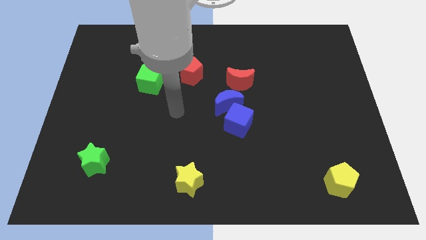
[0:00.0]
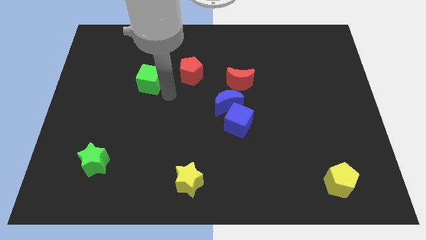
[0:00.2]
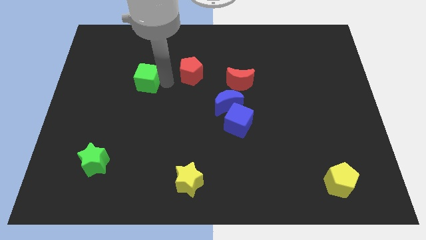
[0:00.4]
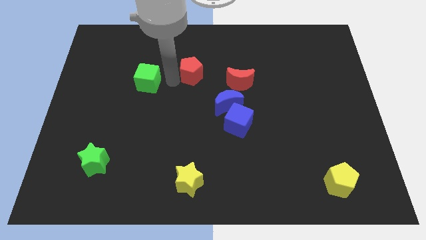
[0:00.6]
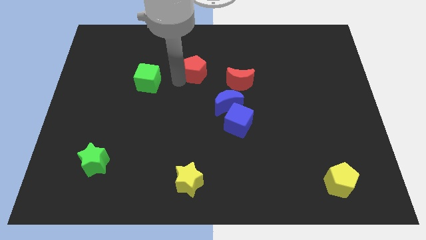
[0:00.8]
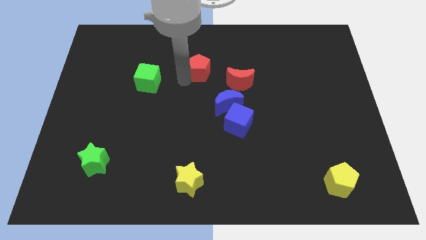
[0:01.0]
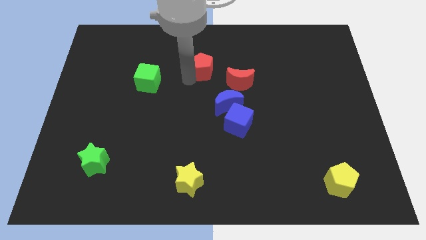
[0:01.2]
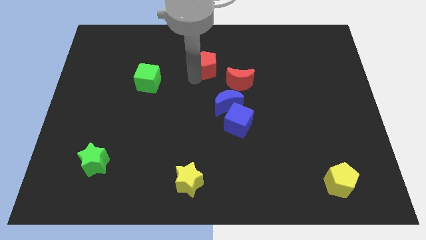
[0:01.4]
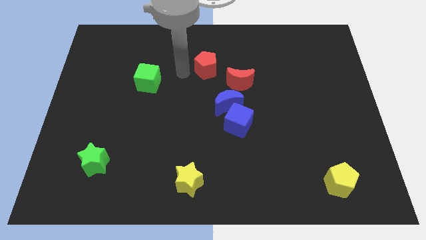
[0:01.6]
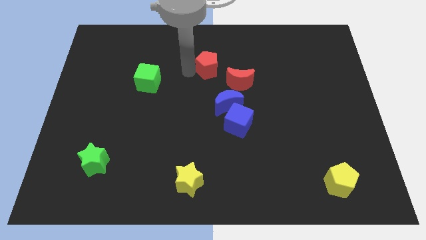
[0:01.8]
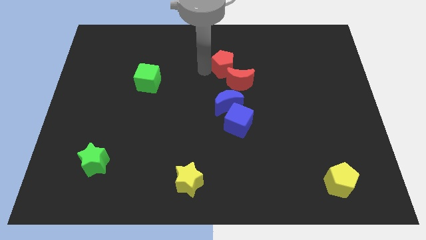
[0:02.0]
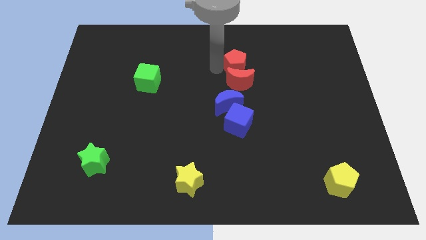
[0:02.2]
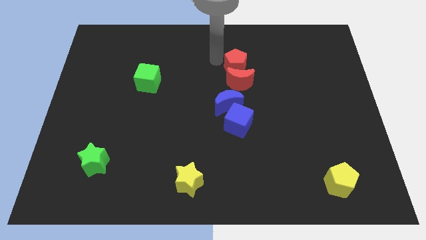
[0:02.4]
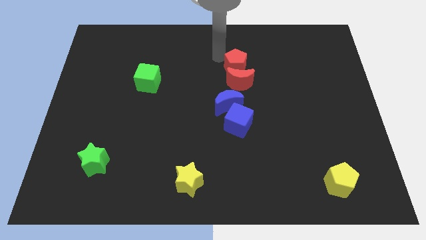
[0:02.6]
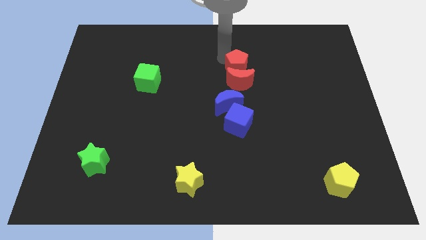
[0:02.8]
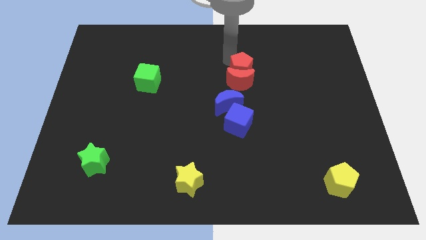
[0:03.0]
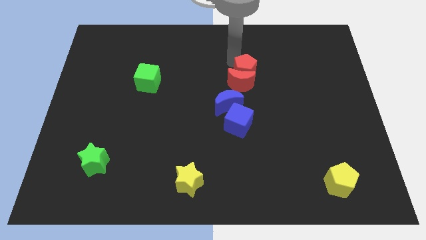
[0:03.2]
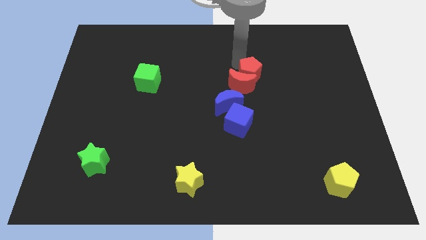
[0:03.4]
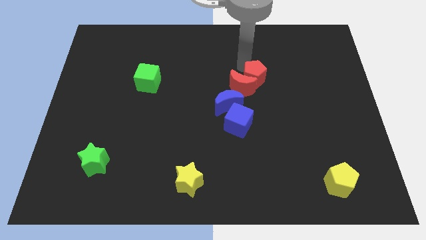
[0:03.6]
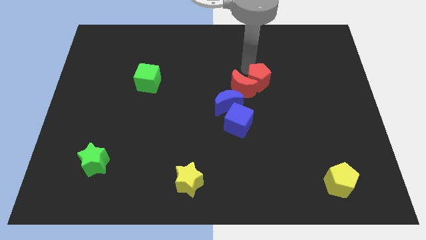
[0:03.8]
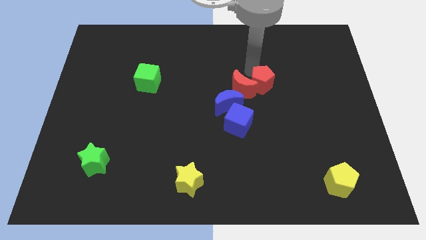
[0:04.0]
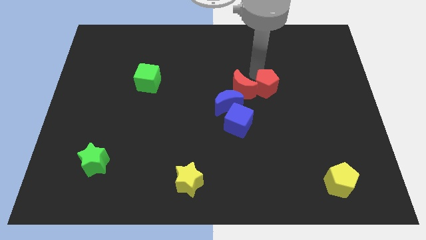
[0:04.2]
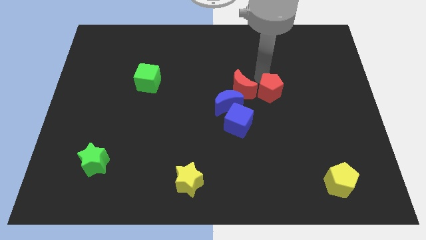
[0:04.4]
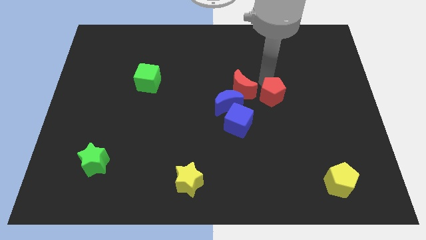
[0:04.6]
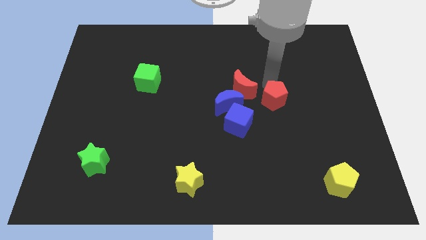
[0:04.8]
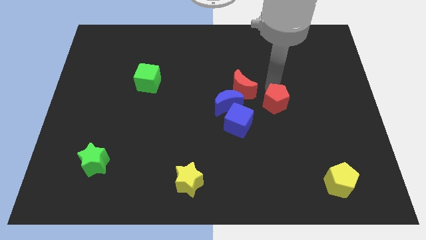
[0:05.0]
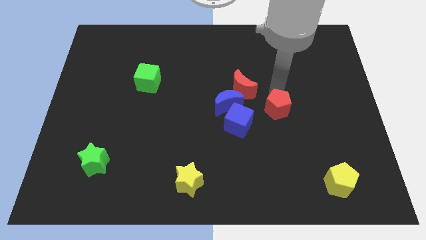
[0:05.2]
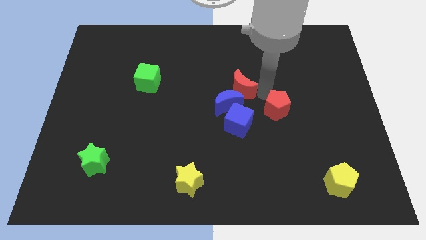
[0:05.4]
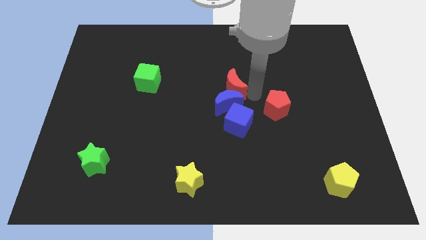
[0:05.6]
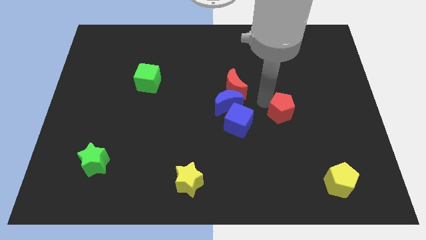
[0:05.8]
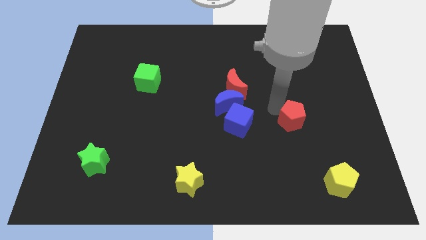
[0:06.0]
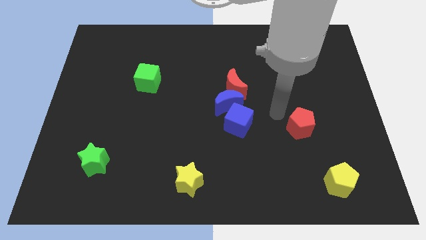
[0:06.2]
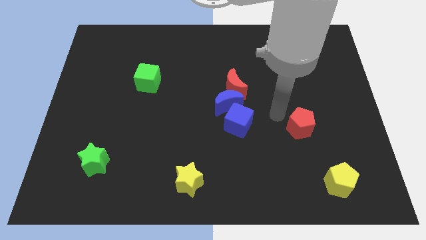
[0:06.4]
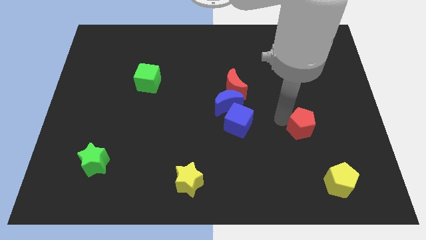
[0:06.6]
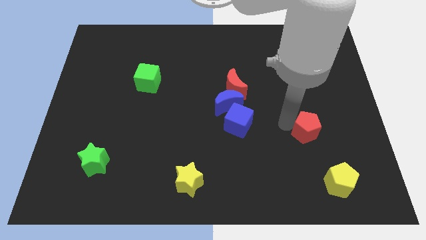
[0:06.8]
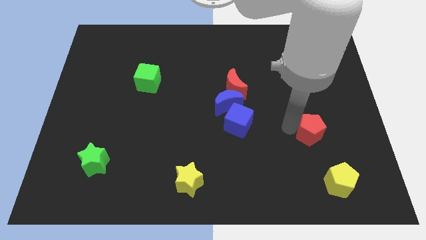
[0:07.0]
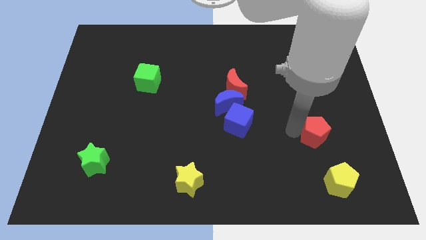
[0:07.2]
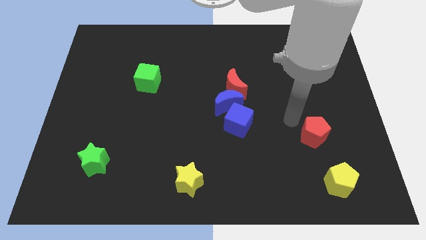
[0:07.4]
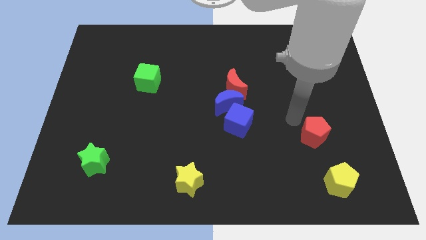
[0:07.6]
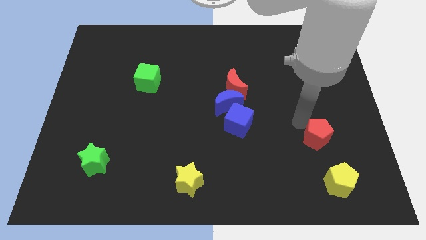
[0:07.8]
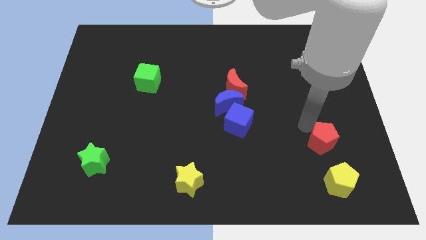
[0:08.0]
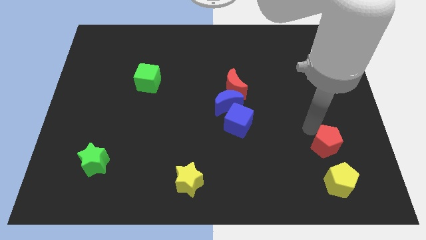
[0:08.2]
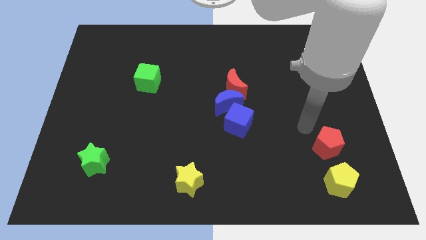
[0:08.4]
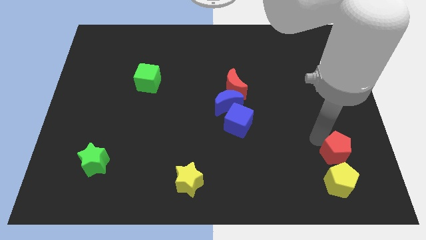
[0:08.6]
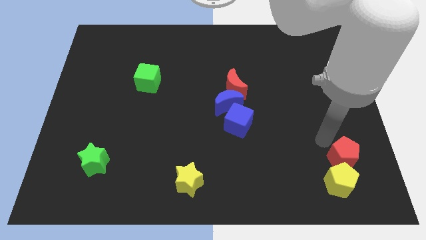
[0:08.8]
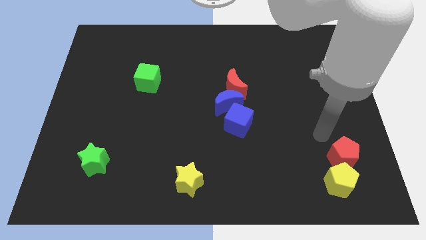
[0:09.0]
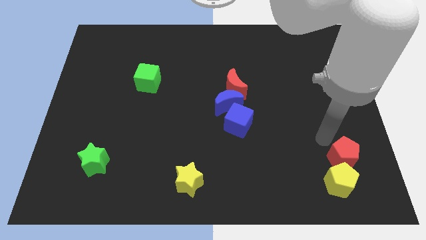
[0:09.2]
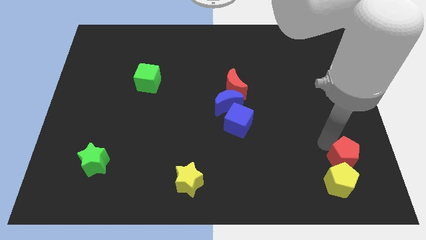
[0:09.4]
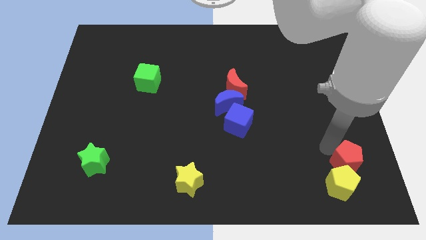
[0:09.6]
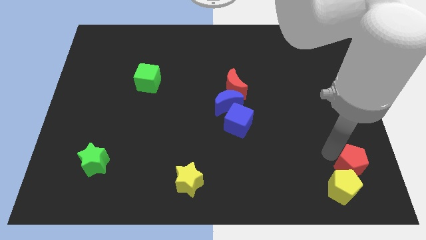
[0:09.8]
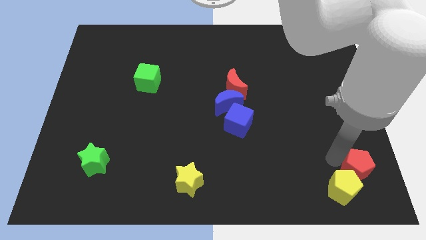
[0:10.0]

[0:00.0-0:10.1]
push the red pentagon to the bottom right of the board
